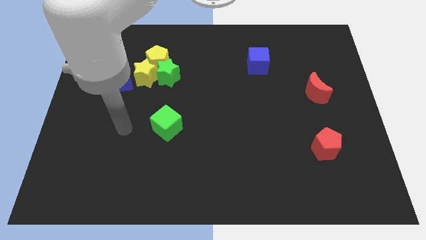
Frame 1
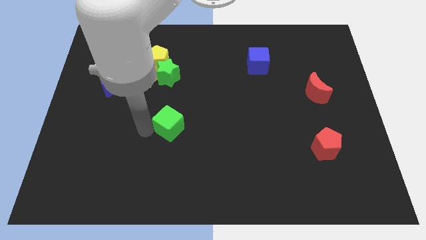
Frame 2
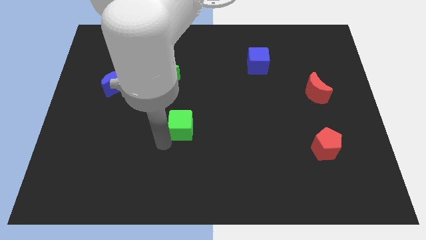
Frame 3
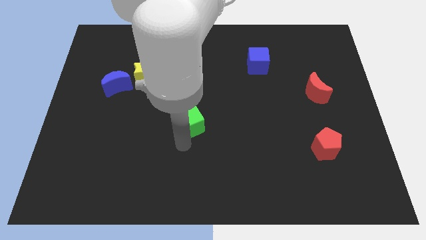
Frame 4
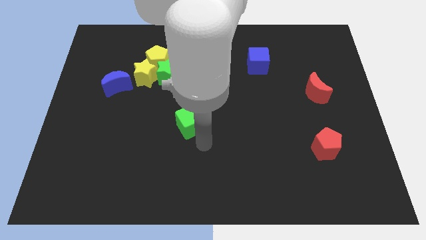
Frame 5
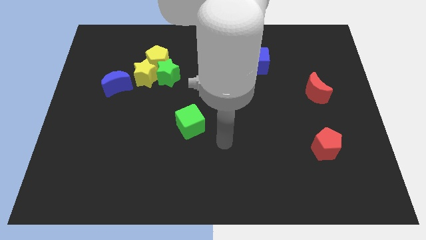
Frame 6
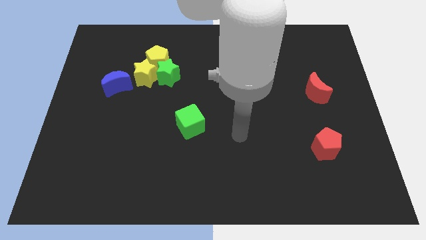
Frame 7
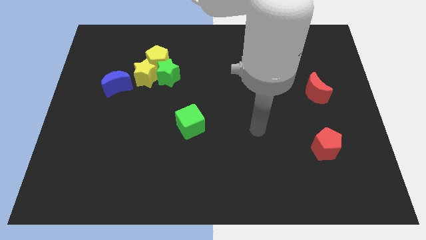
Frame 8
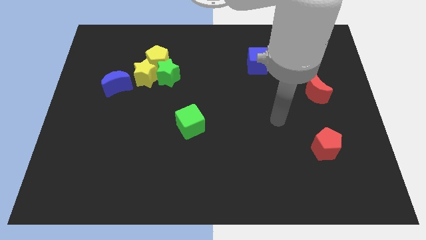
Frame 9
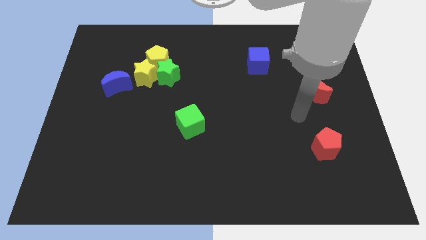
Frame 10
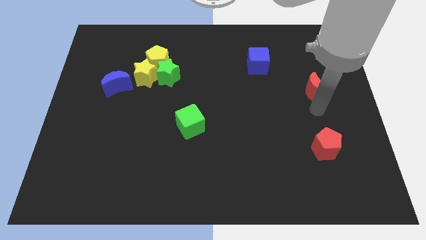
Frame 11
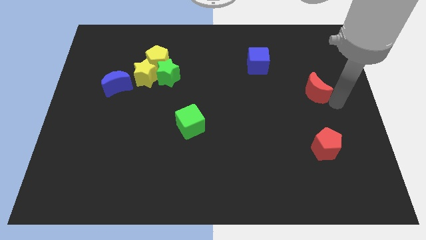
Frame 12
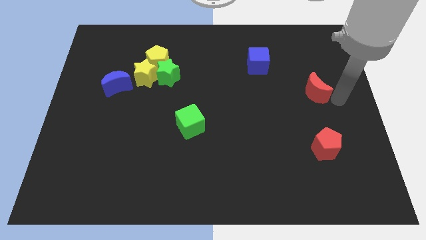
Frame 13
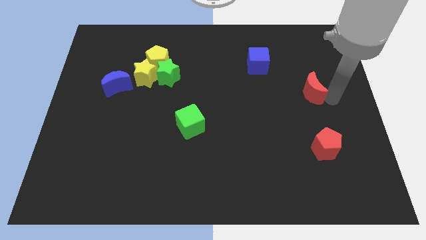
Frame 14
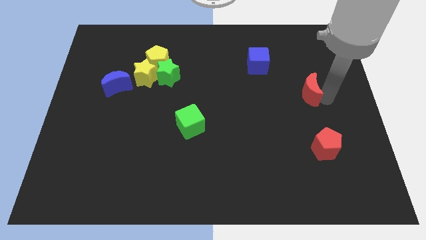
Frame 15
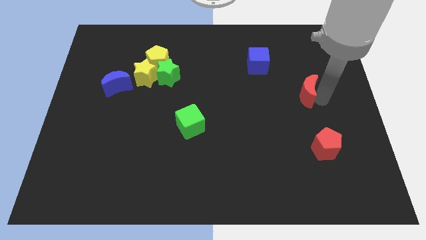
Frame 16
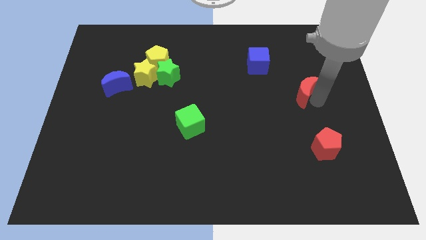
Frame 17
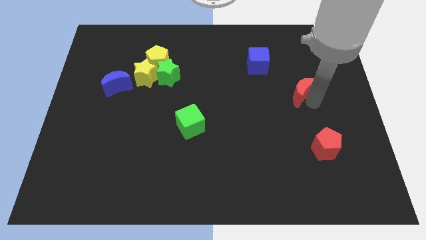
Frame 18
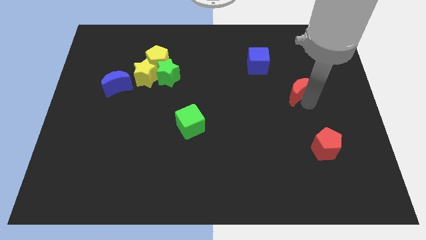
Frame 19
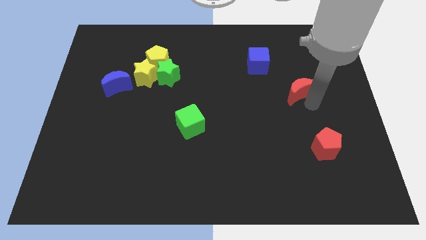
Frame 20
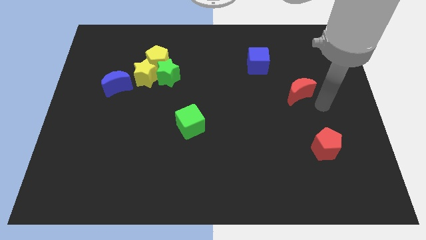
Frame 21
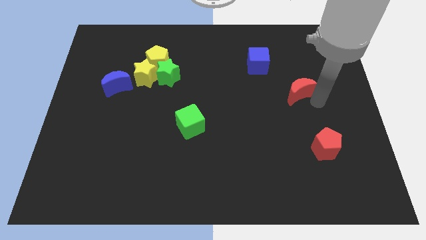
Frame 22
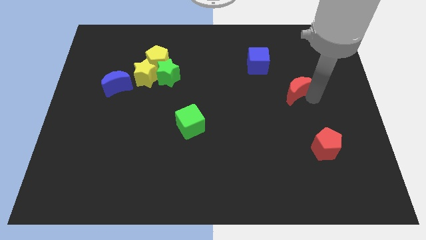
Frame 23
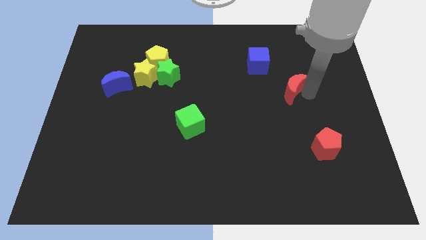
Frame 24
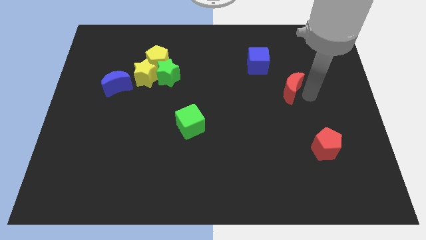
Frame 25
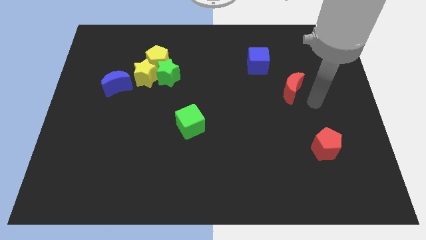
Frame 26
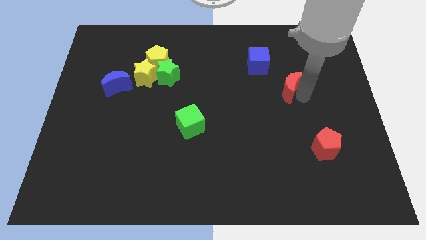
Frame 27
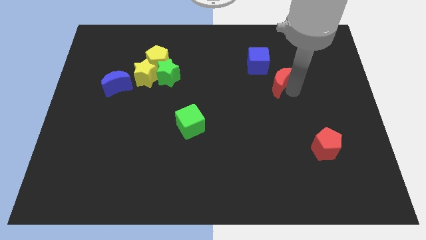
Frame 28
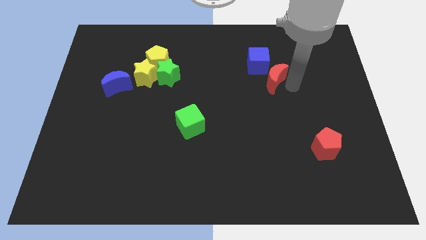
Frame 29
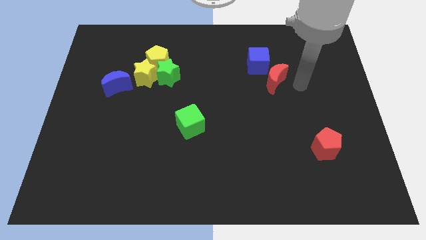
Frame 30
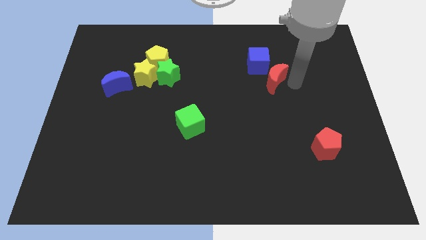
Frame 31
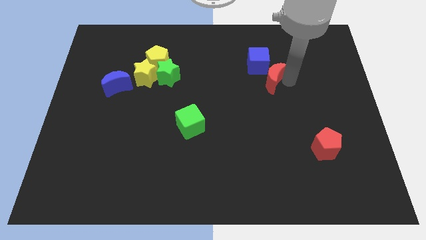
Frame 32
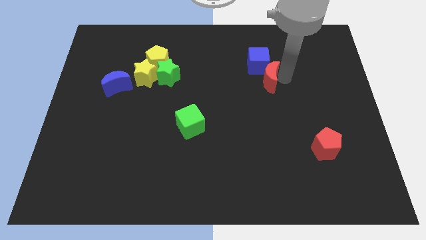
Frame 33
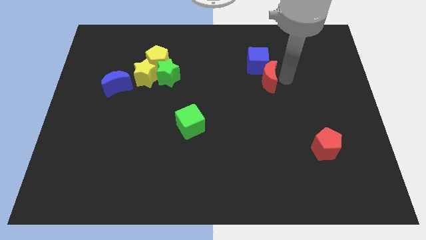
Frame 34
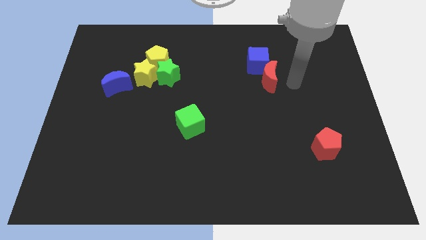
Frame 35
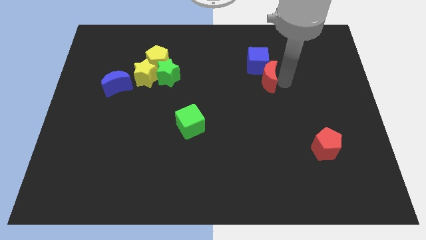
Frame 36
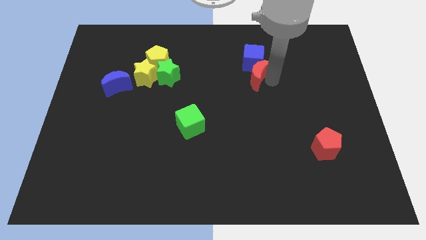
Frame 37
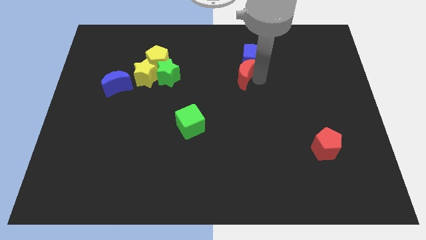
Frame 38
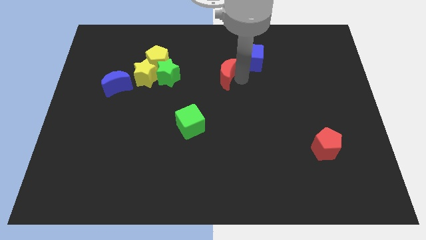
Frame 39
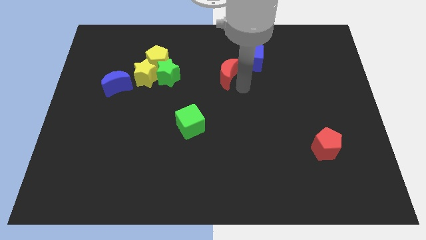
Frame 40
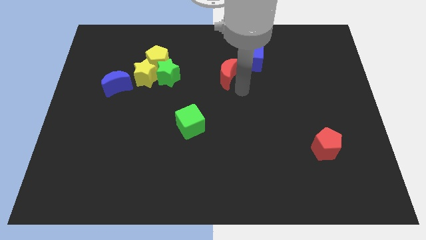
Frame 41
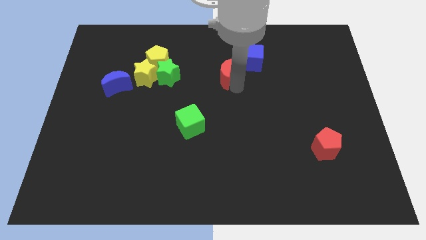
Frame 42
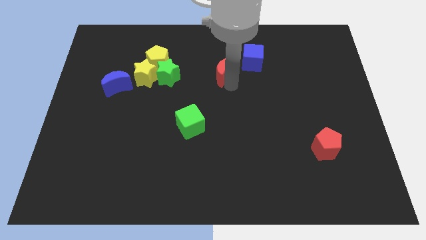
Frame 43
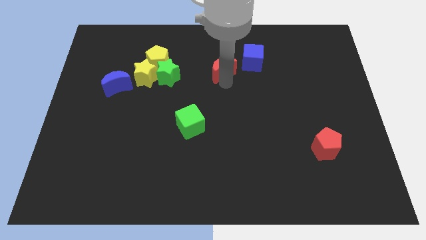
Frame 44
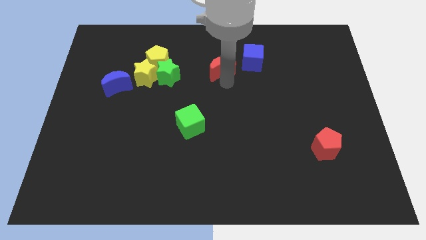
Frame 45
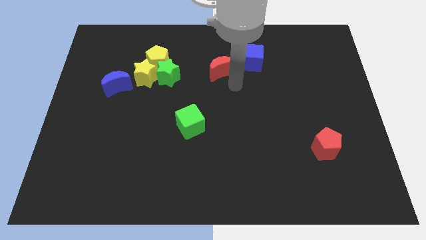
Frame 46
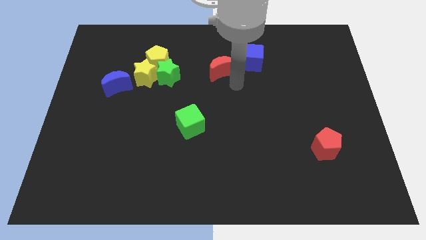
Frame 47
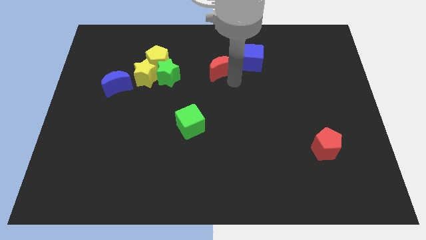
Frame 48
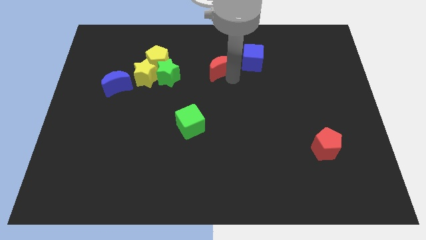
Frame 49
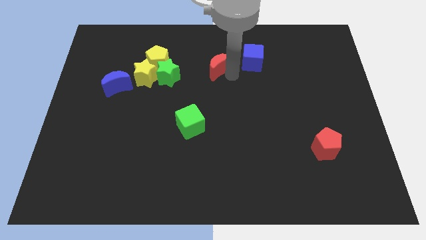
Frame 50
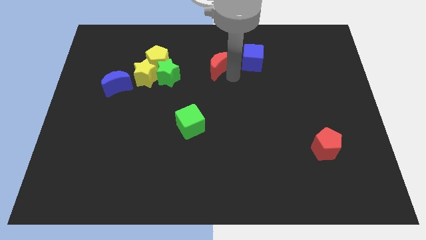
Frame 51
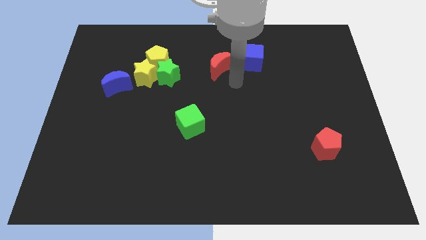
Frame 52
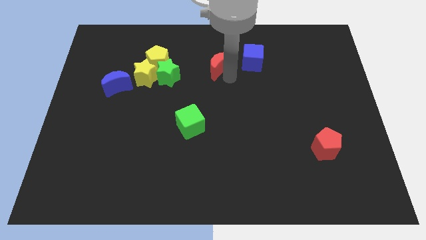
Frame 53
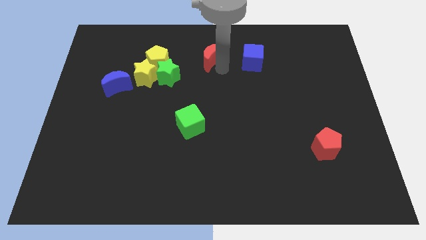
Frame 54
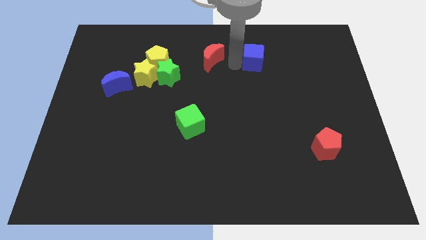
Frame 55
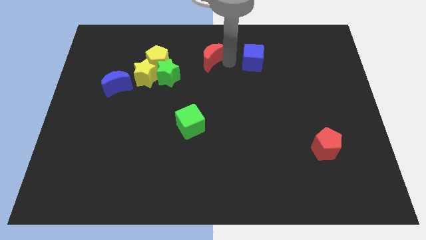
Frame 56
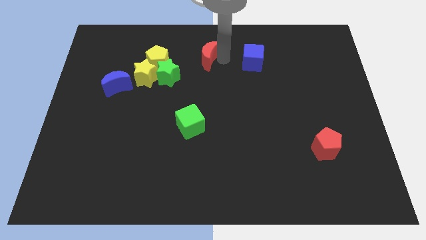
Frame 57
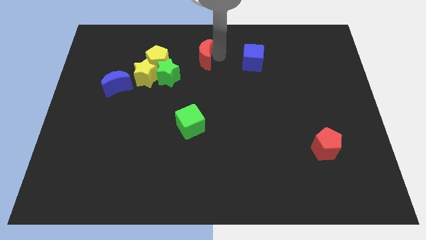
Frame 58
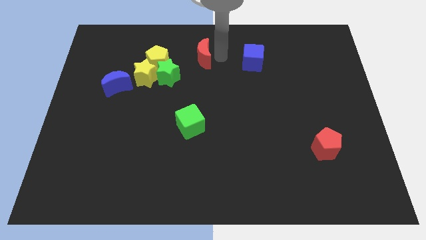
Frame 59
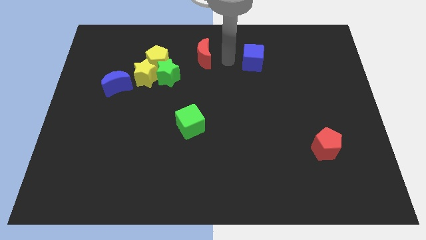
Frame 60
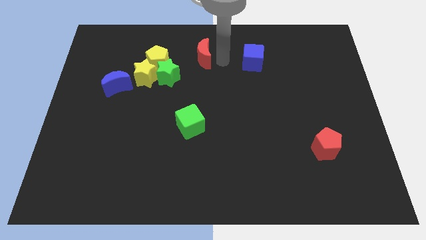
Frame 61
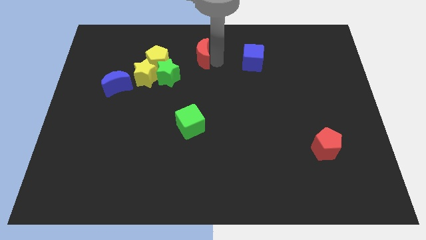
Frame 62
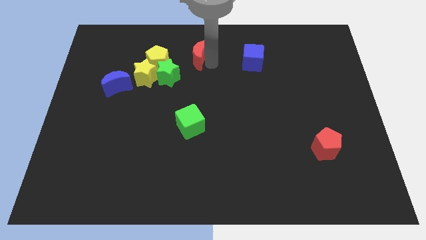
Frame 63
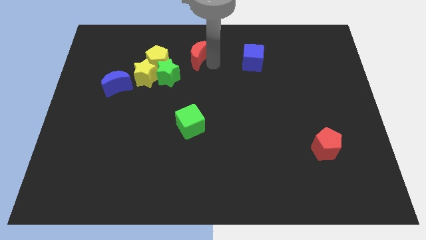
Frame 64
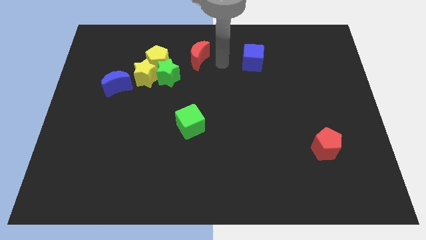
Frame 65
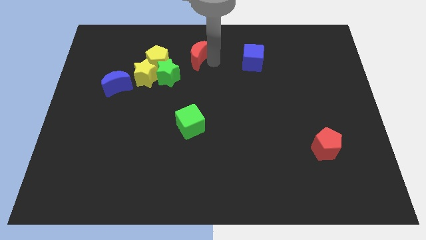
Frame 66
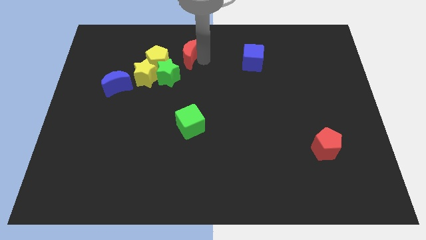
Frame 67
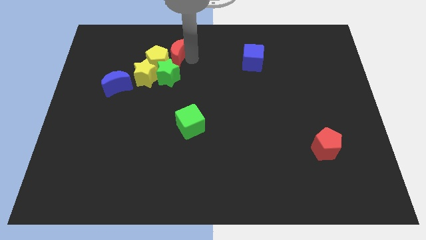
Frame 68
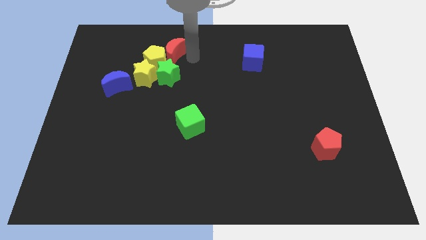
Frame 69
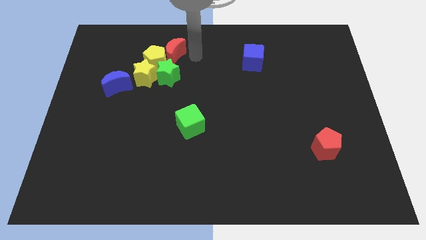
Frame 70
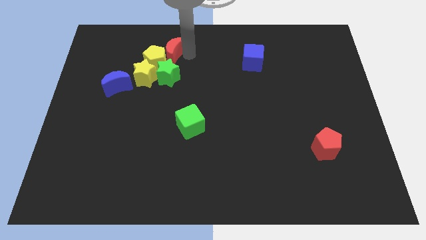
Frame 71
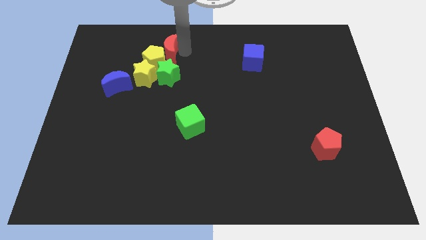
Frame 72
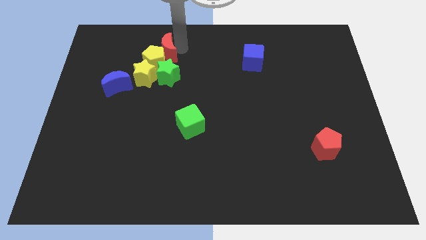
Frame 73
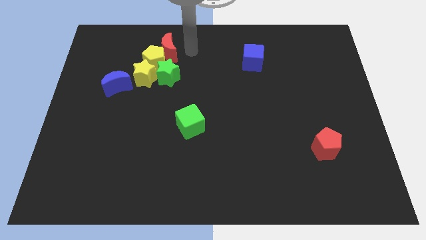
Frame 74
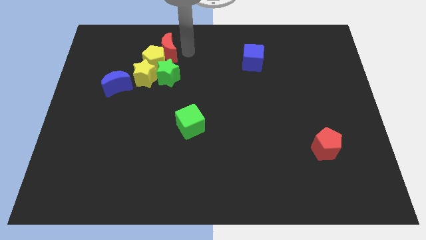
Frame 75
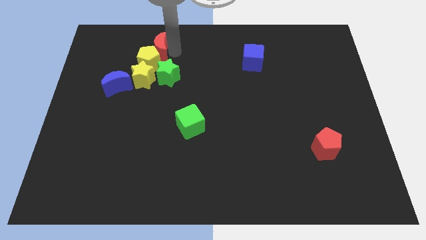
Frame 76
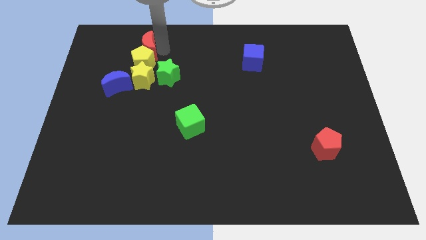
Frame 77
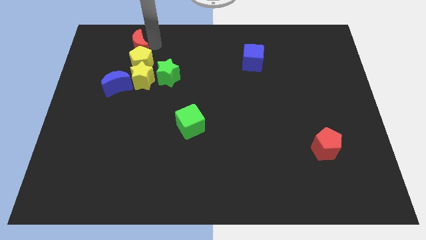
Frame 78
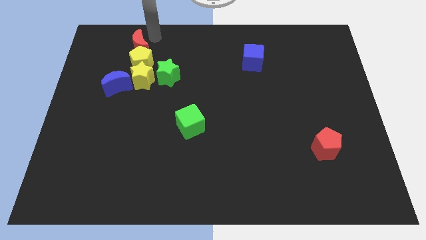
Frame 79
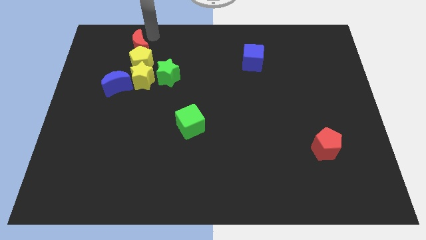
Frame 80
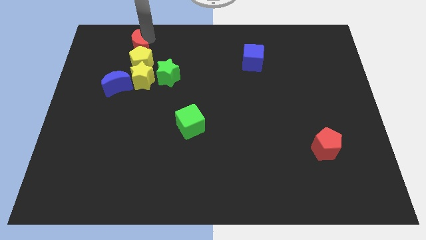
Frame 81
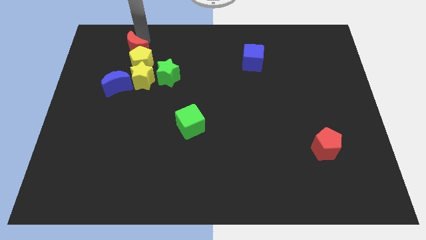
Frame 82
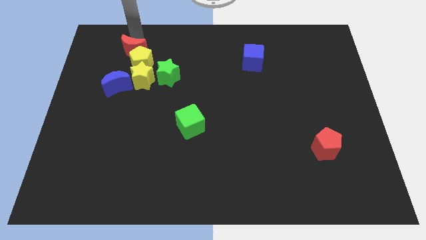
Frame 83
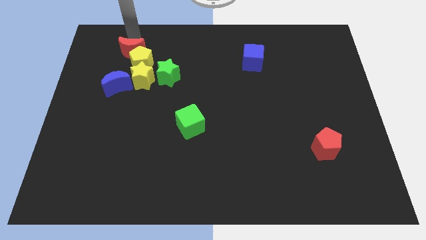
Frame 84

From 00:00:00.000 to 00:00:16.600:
push the red moon to the top left of the yellow star
